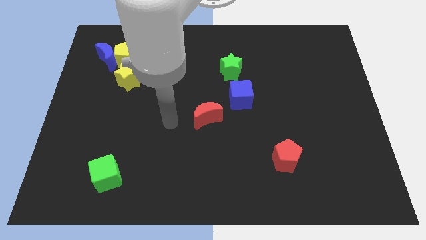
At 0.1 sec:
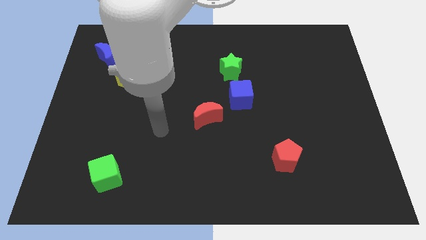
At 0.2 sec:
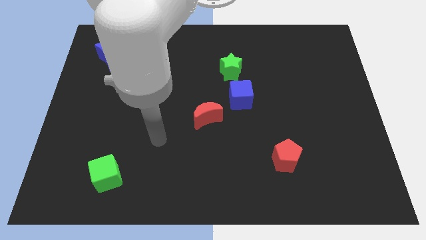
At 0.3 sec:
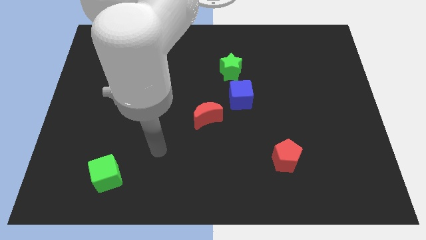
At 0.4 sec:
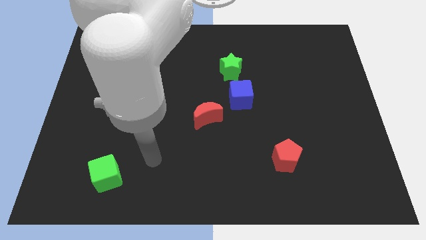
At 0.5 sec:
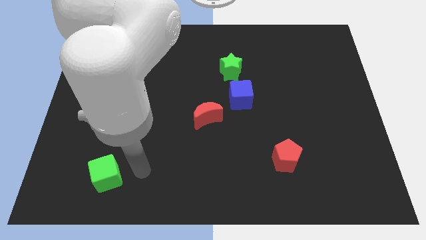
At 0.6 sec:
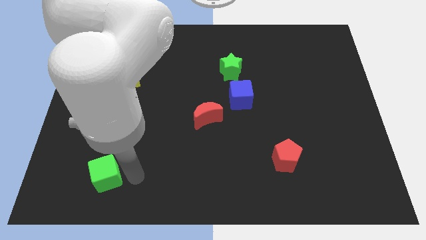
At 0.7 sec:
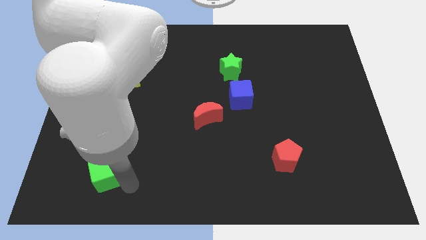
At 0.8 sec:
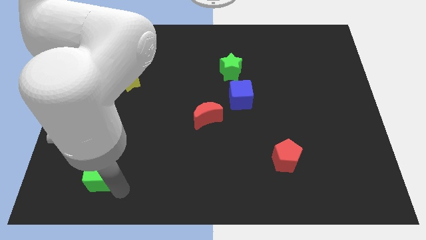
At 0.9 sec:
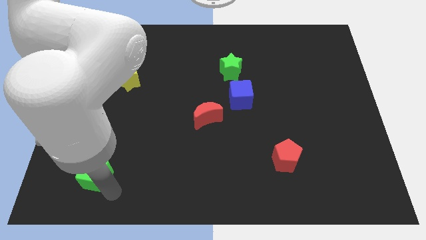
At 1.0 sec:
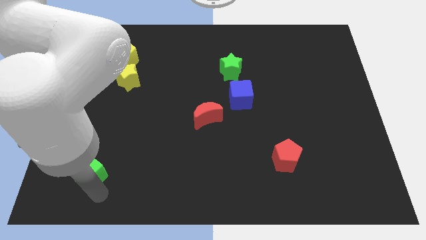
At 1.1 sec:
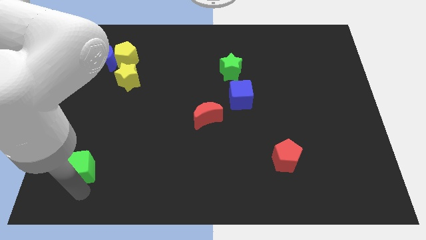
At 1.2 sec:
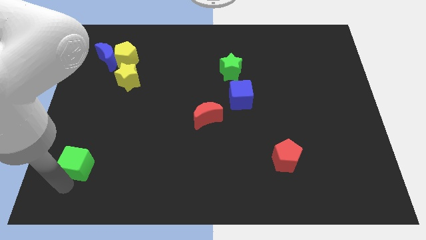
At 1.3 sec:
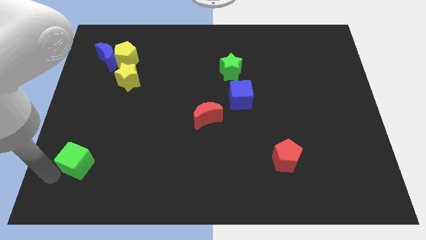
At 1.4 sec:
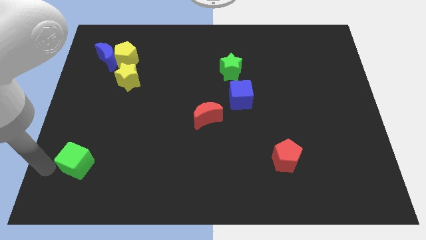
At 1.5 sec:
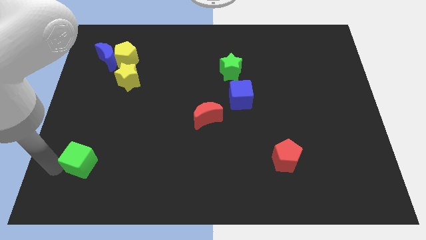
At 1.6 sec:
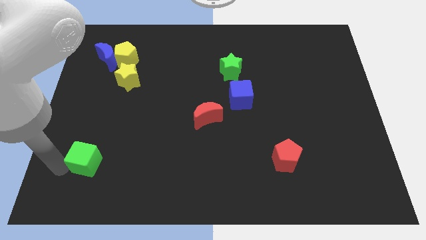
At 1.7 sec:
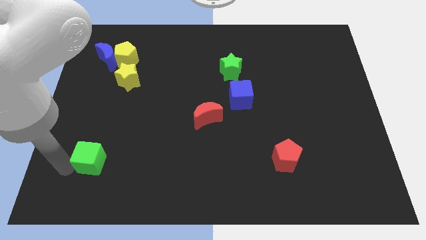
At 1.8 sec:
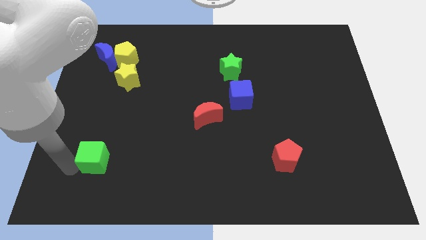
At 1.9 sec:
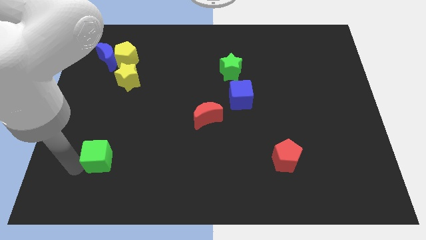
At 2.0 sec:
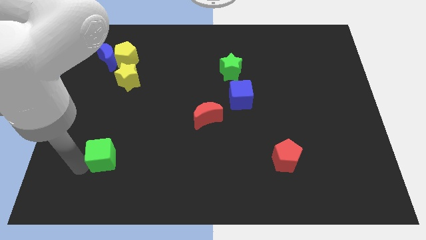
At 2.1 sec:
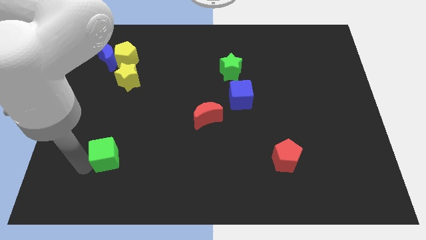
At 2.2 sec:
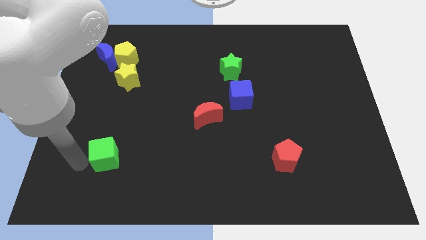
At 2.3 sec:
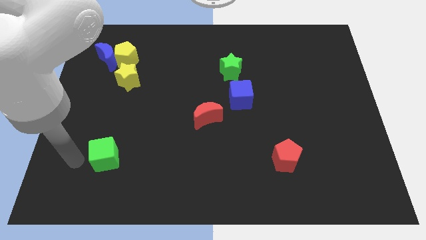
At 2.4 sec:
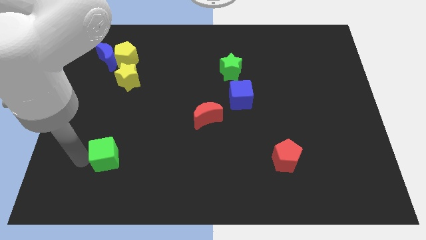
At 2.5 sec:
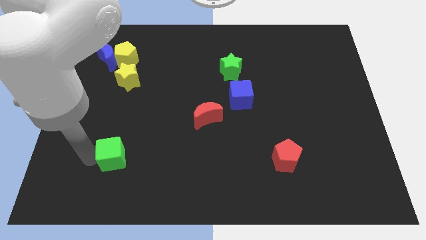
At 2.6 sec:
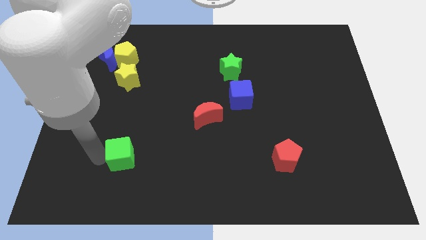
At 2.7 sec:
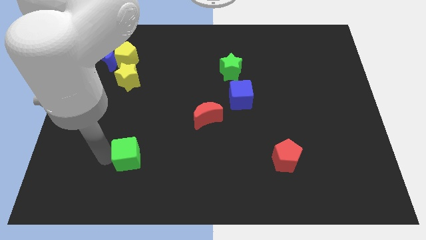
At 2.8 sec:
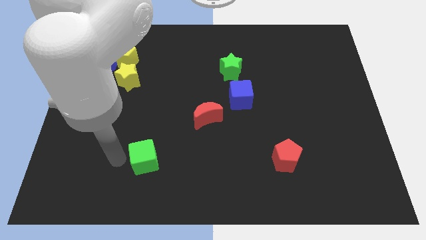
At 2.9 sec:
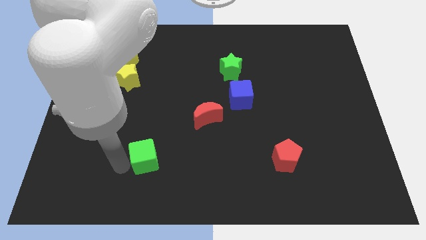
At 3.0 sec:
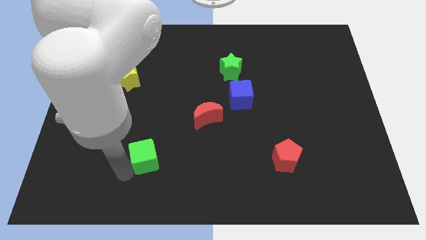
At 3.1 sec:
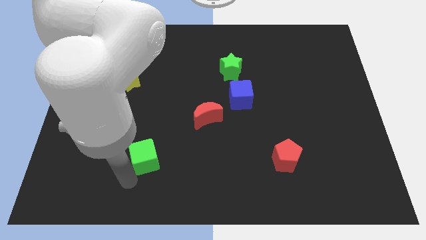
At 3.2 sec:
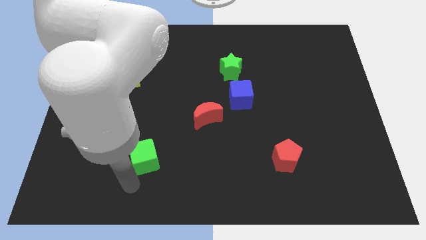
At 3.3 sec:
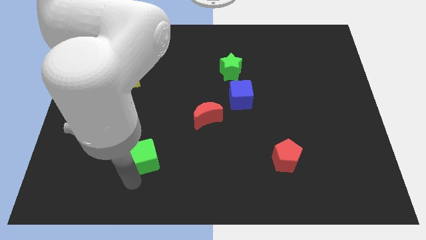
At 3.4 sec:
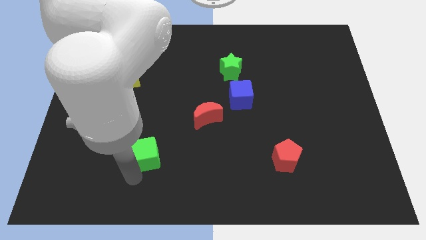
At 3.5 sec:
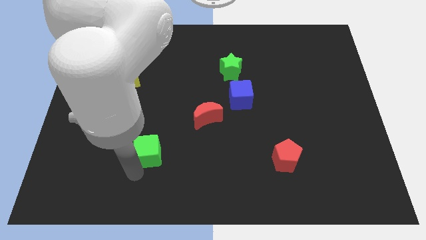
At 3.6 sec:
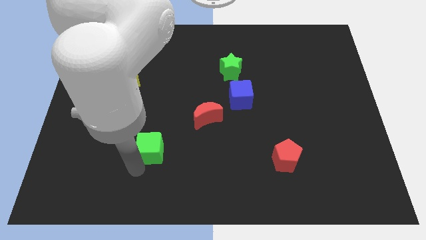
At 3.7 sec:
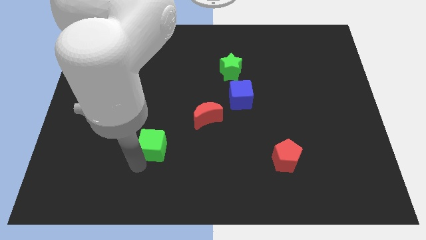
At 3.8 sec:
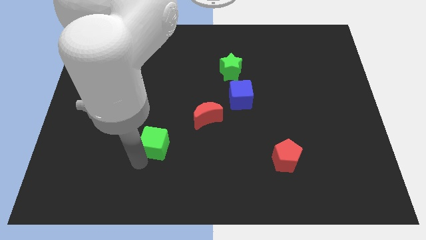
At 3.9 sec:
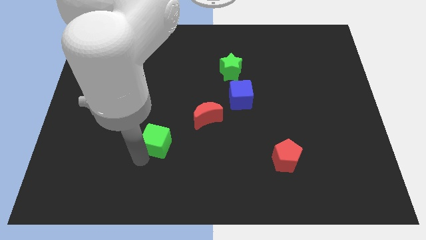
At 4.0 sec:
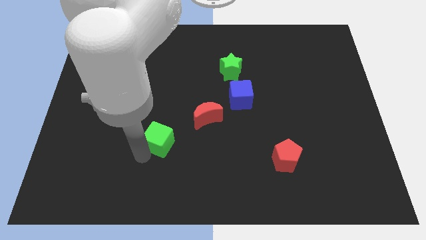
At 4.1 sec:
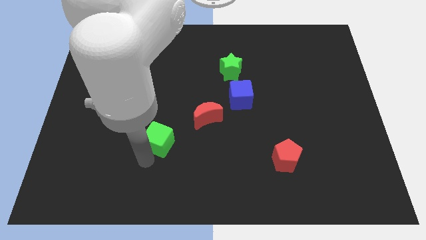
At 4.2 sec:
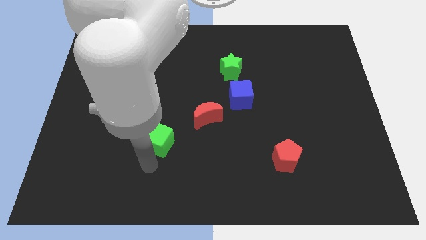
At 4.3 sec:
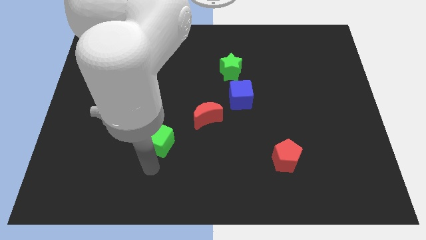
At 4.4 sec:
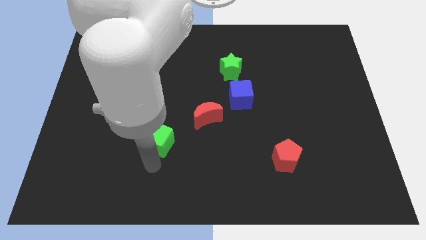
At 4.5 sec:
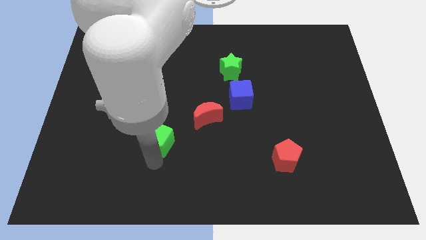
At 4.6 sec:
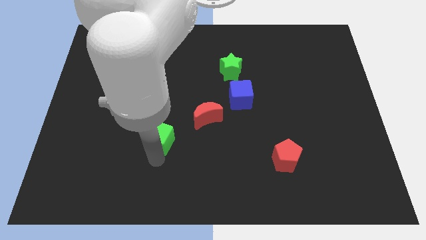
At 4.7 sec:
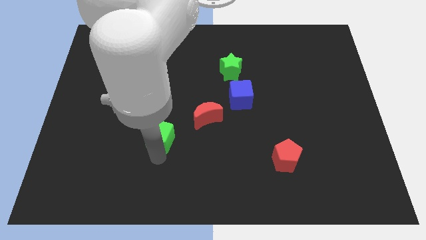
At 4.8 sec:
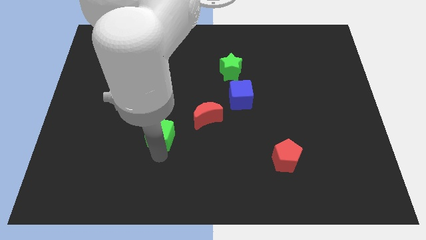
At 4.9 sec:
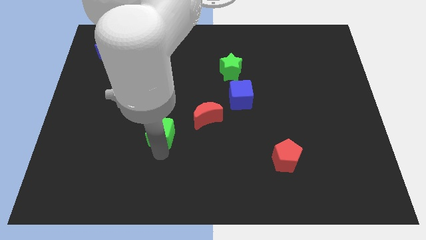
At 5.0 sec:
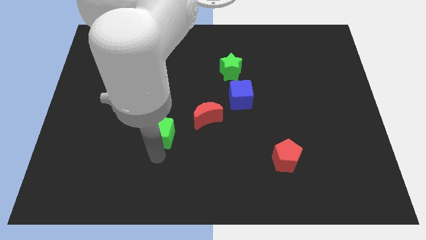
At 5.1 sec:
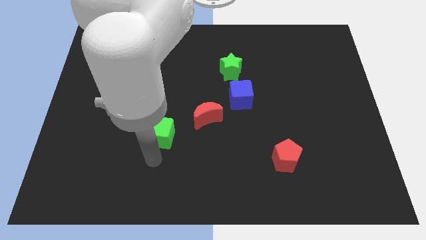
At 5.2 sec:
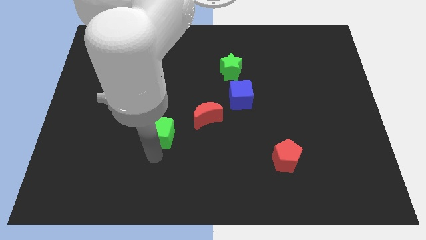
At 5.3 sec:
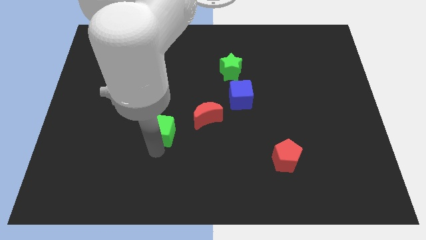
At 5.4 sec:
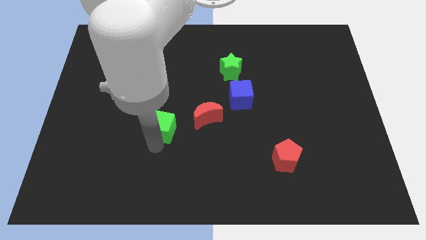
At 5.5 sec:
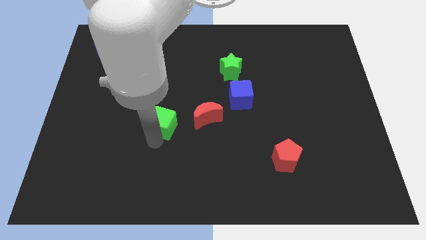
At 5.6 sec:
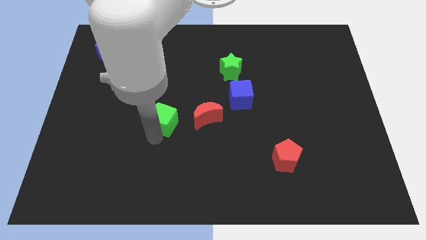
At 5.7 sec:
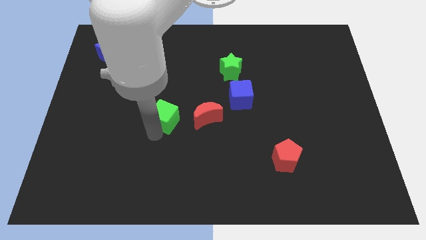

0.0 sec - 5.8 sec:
slide the green cube to the middle

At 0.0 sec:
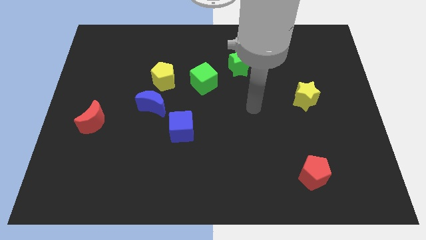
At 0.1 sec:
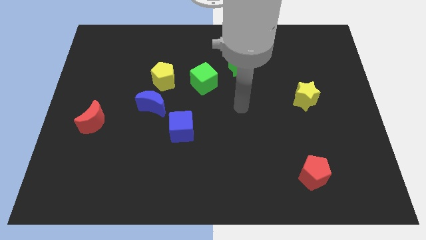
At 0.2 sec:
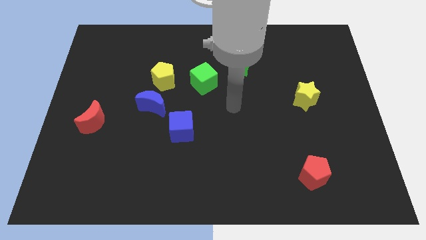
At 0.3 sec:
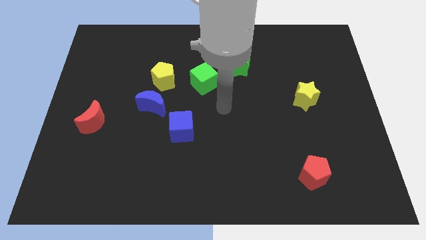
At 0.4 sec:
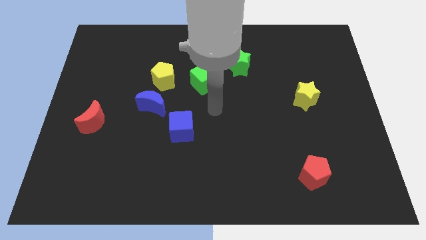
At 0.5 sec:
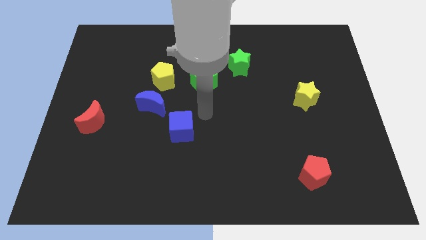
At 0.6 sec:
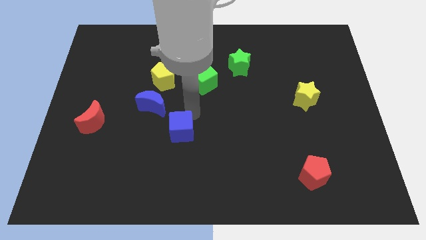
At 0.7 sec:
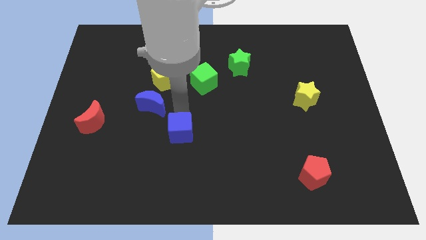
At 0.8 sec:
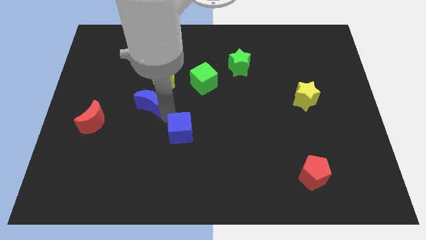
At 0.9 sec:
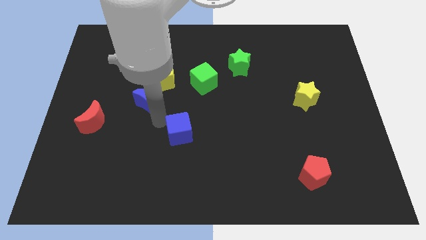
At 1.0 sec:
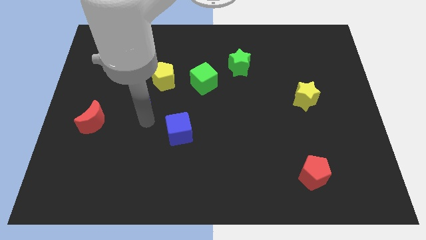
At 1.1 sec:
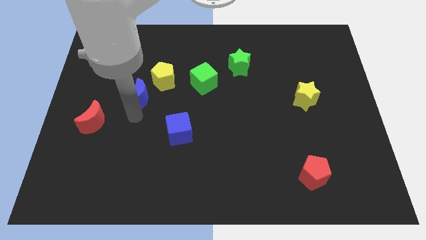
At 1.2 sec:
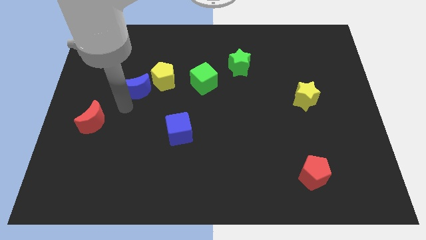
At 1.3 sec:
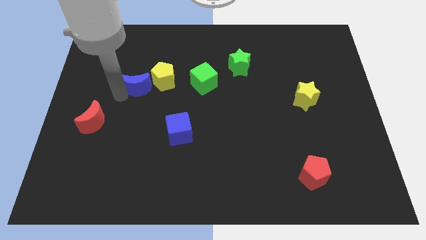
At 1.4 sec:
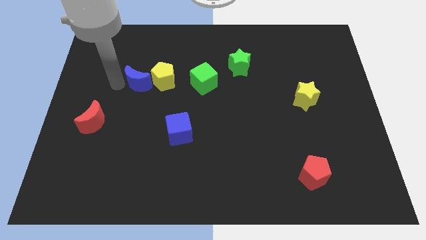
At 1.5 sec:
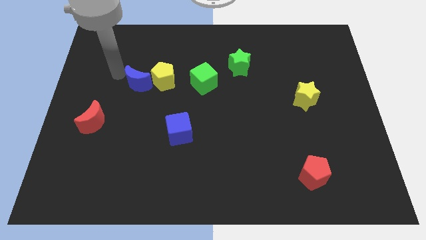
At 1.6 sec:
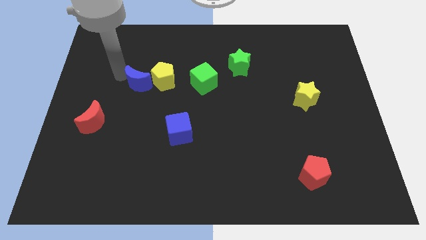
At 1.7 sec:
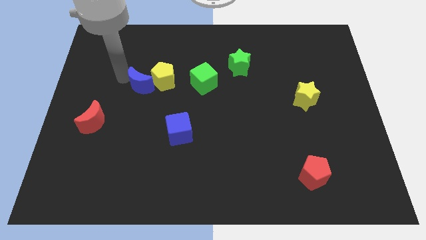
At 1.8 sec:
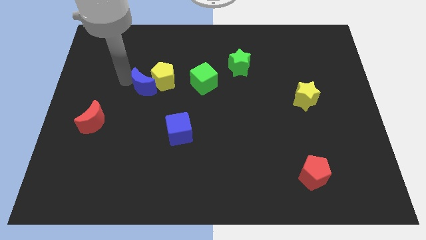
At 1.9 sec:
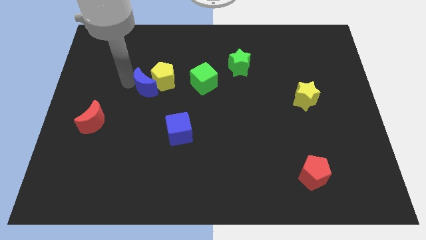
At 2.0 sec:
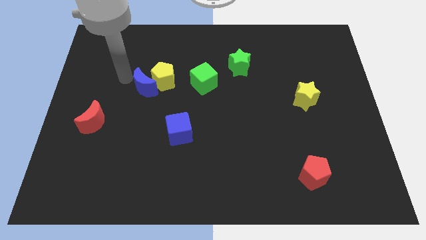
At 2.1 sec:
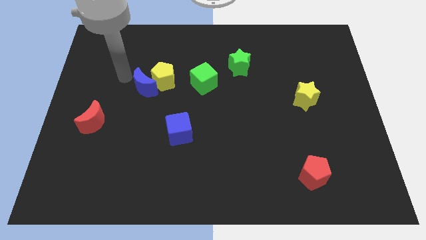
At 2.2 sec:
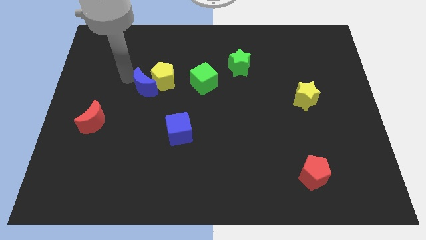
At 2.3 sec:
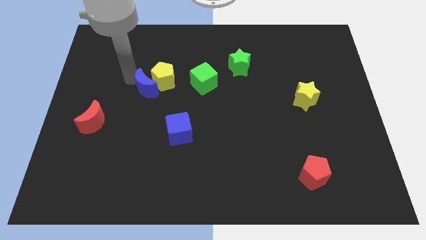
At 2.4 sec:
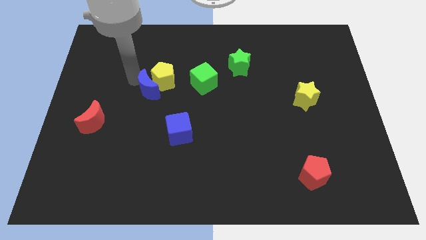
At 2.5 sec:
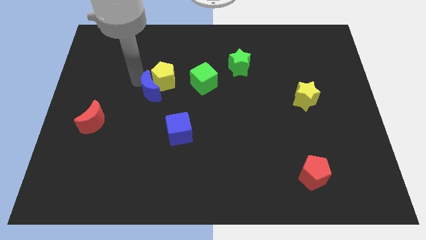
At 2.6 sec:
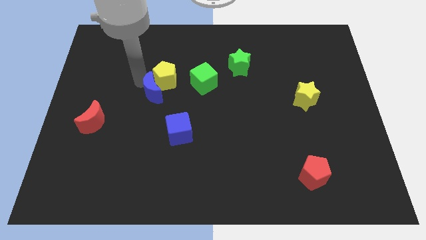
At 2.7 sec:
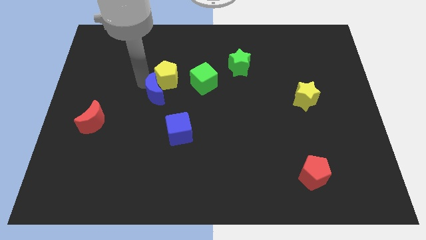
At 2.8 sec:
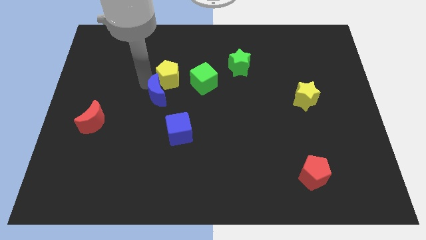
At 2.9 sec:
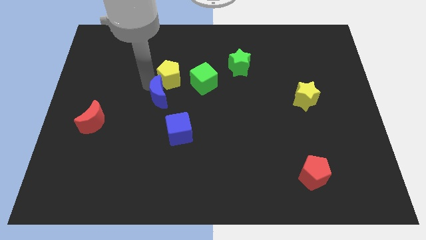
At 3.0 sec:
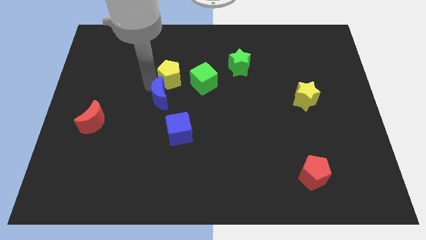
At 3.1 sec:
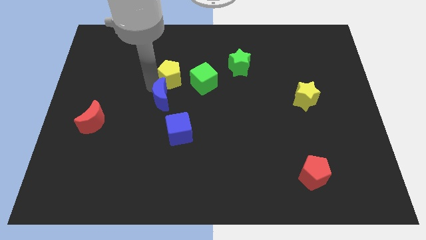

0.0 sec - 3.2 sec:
push the blue moon to the center of the board
